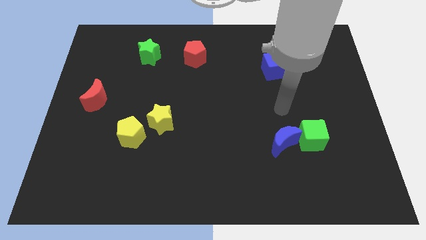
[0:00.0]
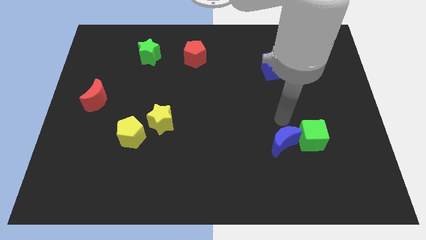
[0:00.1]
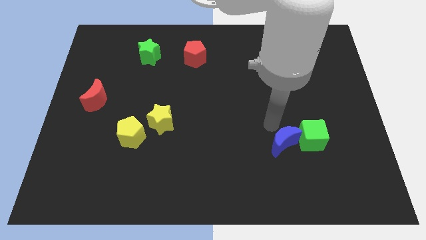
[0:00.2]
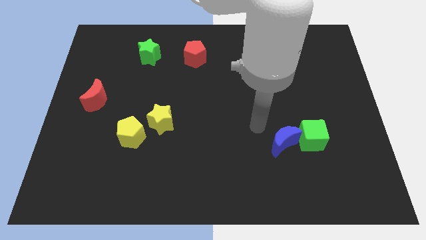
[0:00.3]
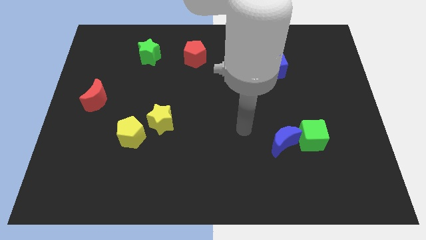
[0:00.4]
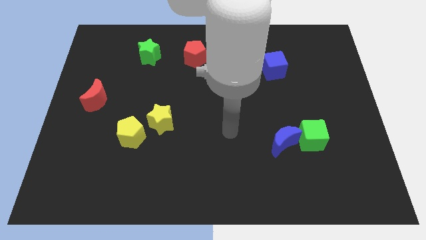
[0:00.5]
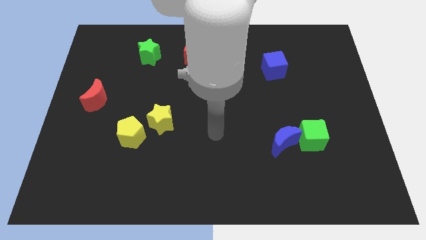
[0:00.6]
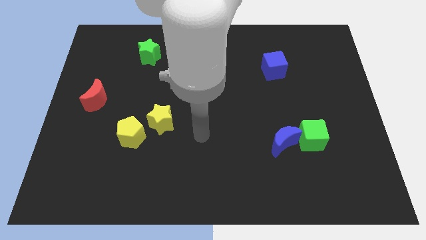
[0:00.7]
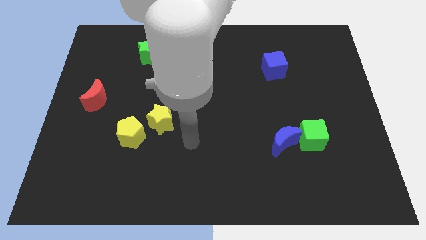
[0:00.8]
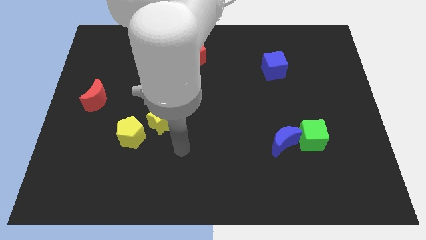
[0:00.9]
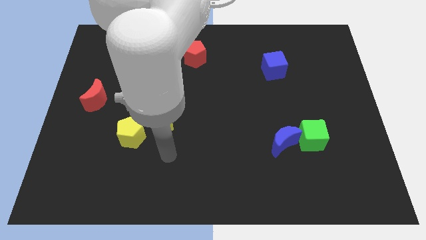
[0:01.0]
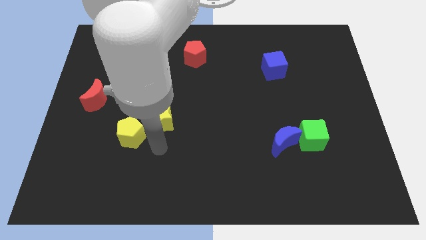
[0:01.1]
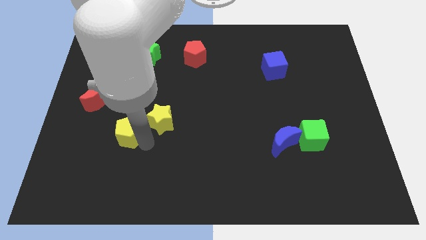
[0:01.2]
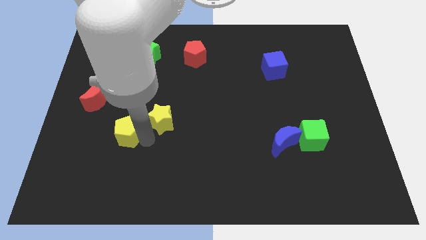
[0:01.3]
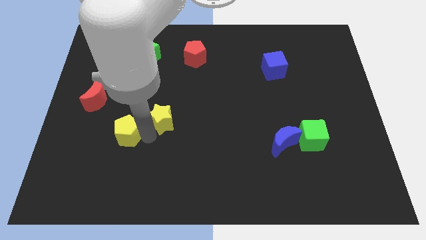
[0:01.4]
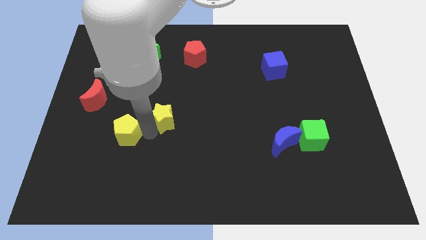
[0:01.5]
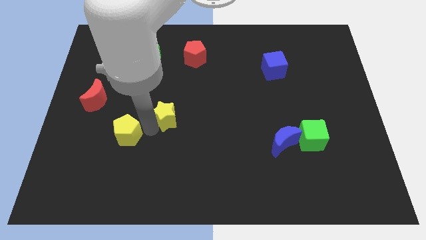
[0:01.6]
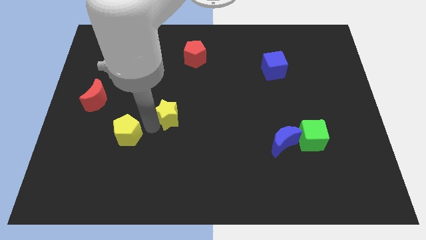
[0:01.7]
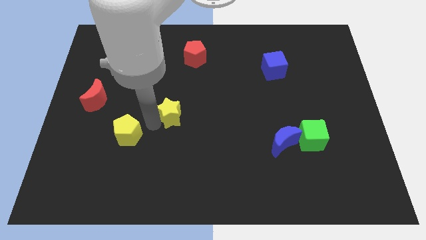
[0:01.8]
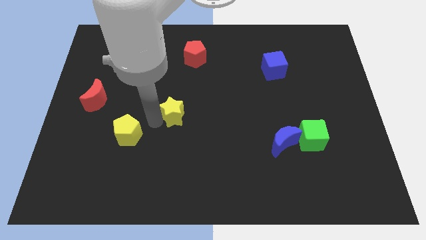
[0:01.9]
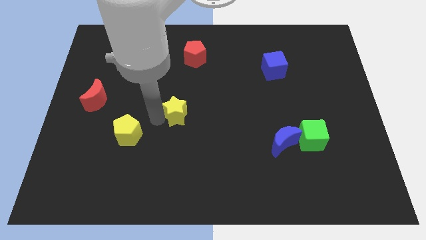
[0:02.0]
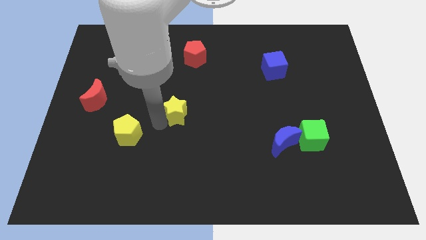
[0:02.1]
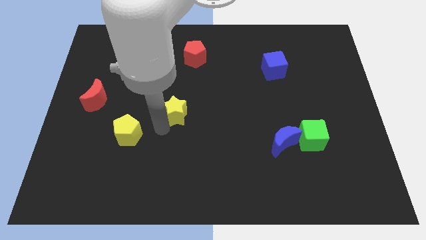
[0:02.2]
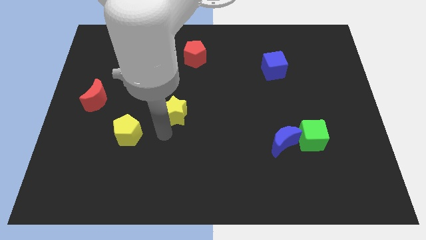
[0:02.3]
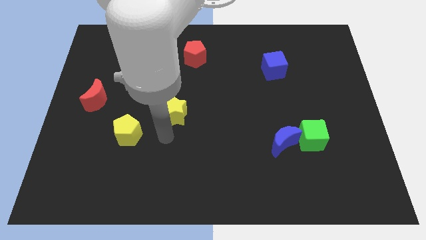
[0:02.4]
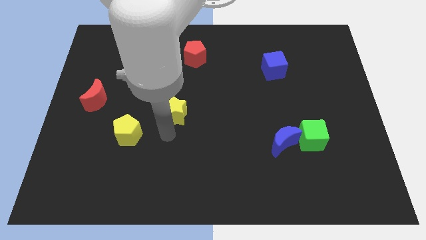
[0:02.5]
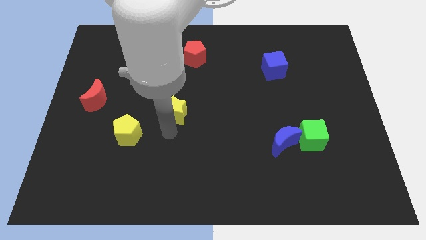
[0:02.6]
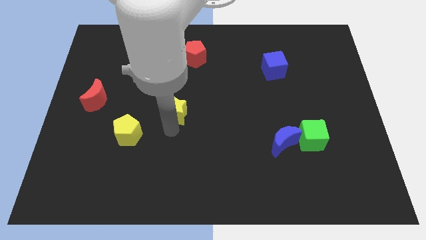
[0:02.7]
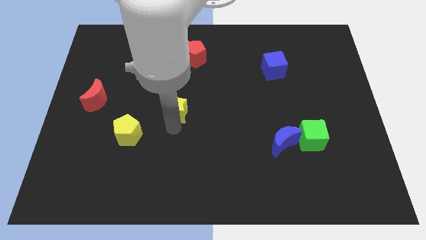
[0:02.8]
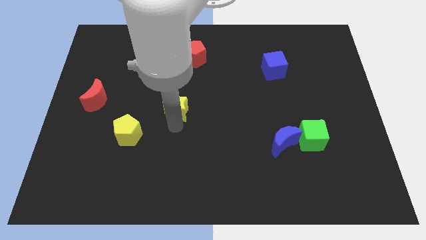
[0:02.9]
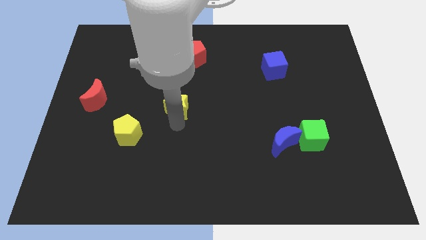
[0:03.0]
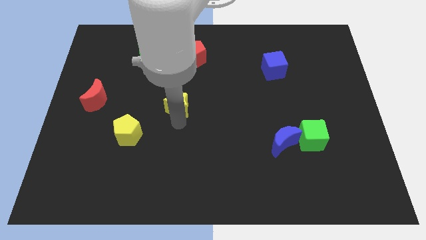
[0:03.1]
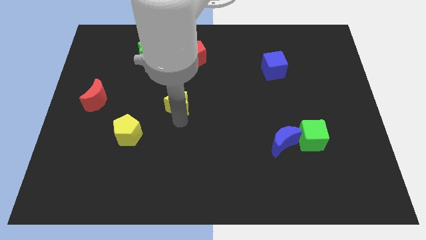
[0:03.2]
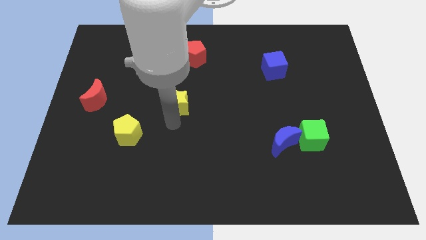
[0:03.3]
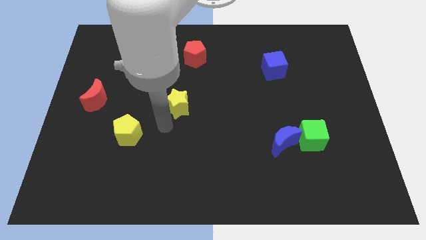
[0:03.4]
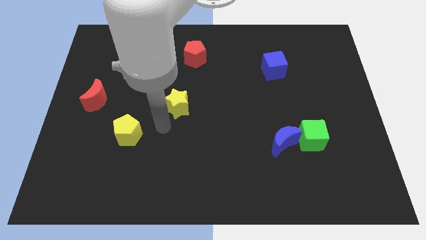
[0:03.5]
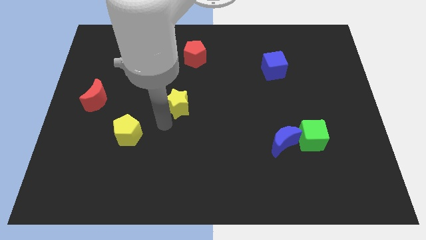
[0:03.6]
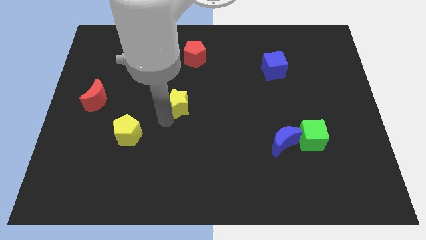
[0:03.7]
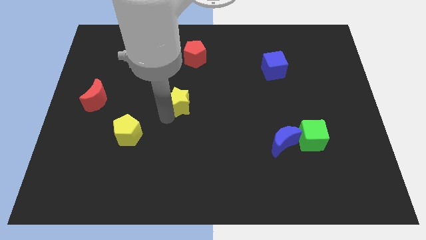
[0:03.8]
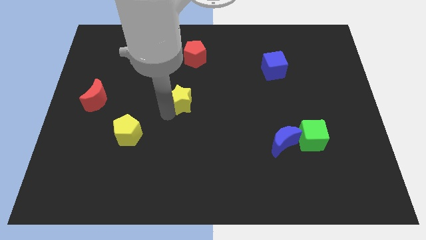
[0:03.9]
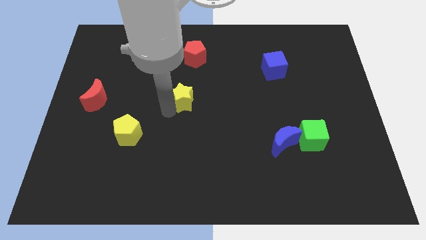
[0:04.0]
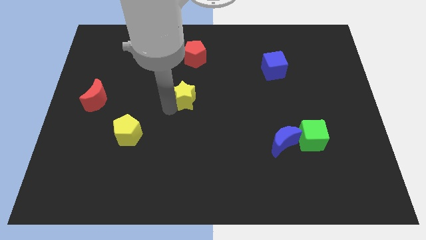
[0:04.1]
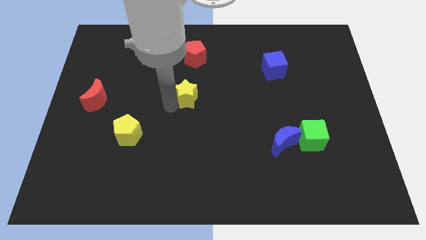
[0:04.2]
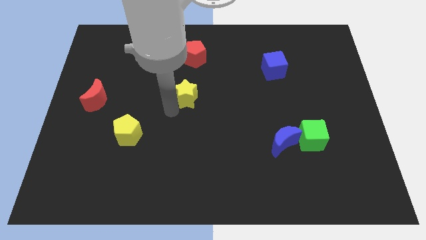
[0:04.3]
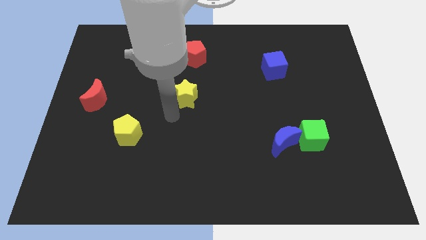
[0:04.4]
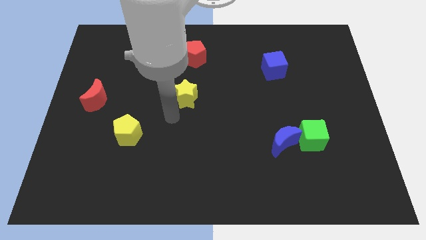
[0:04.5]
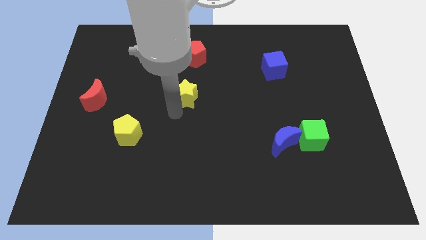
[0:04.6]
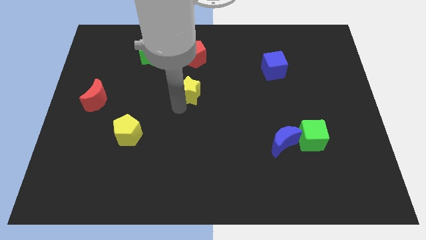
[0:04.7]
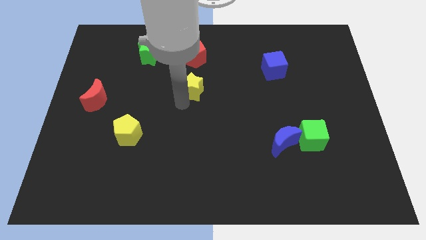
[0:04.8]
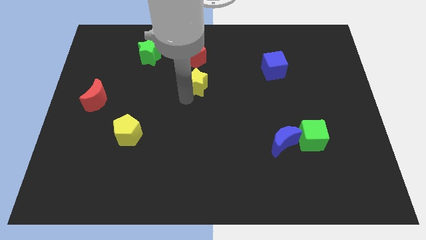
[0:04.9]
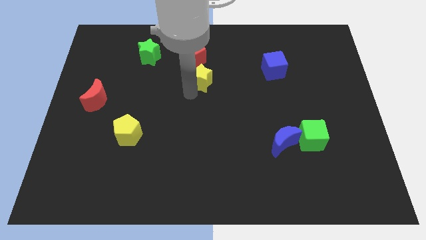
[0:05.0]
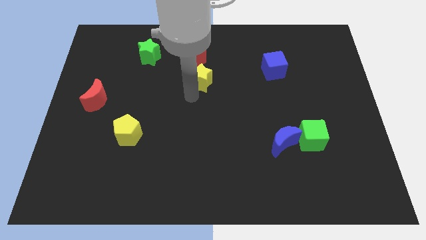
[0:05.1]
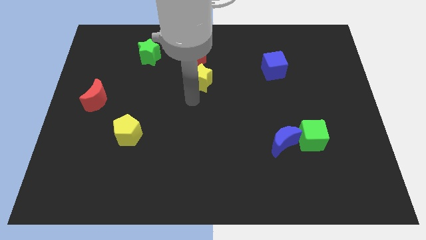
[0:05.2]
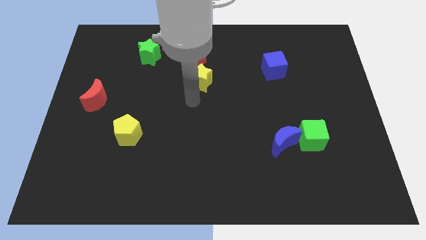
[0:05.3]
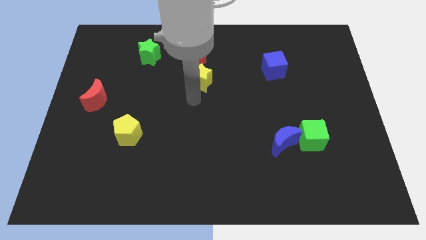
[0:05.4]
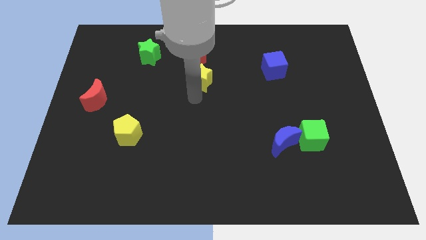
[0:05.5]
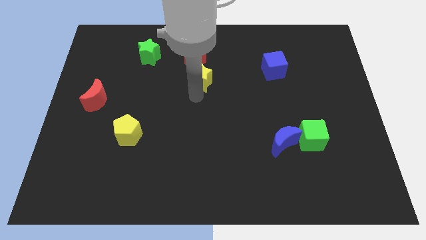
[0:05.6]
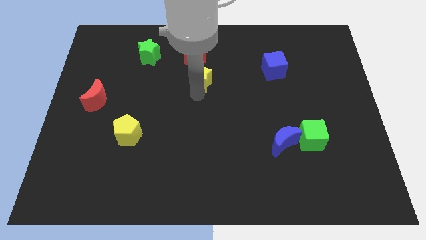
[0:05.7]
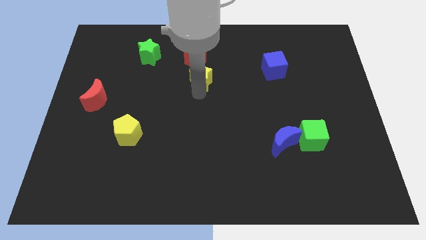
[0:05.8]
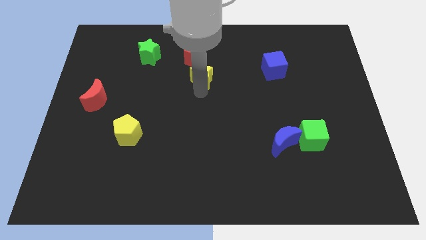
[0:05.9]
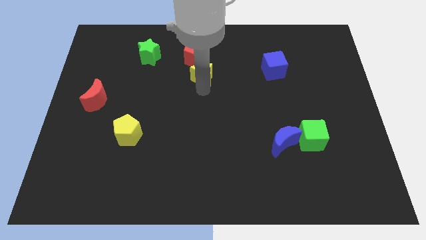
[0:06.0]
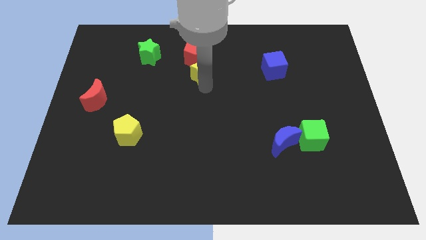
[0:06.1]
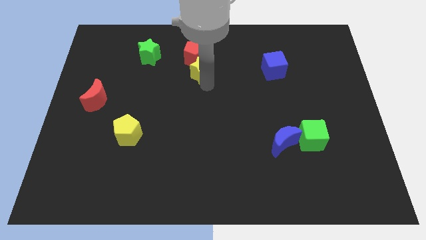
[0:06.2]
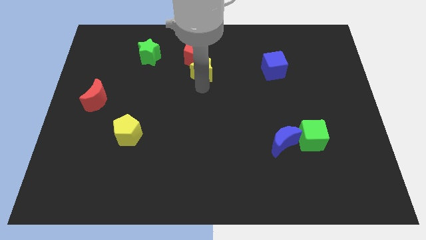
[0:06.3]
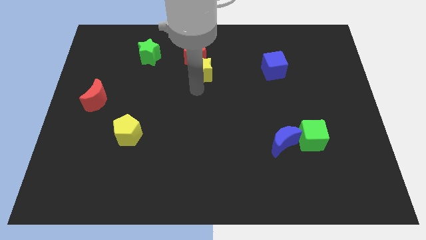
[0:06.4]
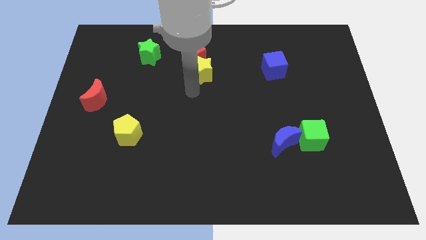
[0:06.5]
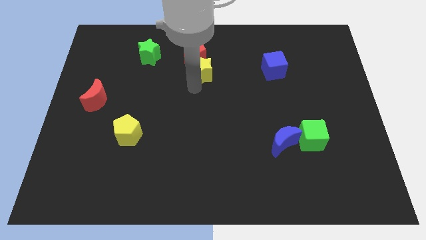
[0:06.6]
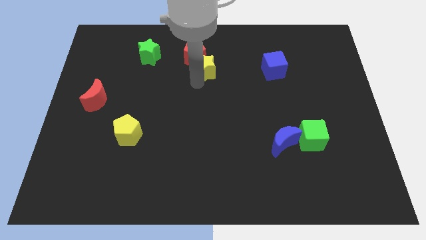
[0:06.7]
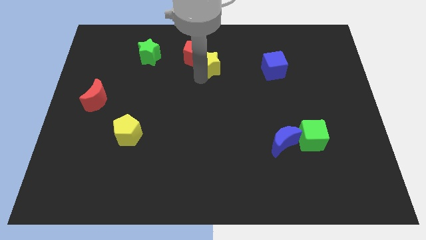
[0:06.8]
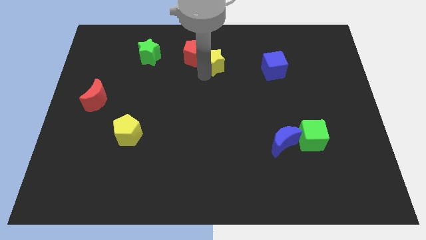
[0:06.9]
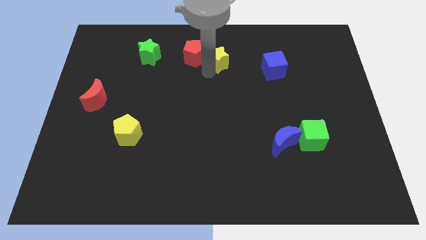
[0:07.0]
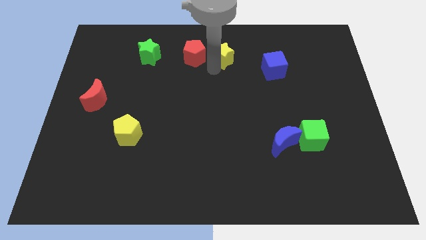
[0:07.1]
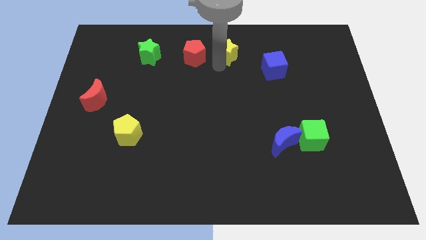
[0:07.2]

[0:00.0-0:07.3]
slide the yellow star to the top
